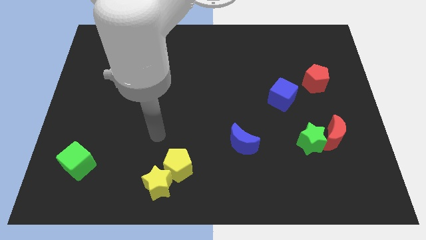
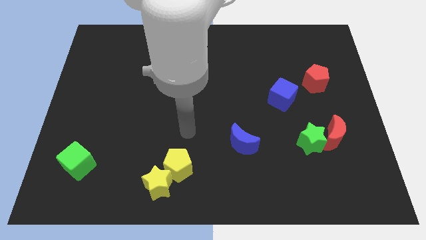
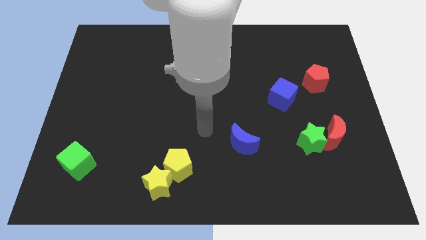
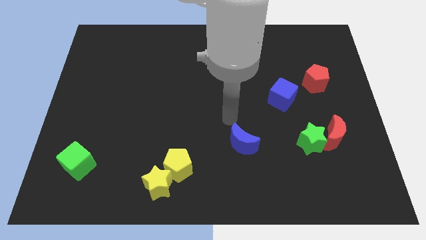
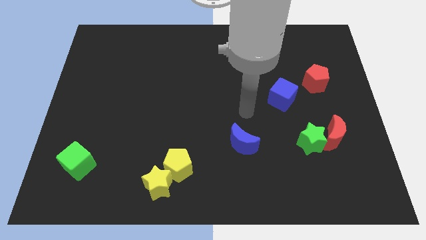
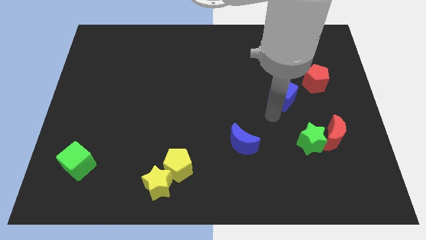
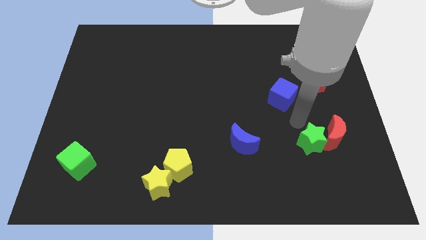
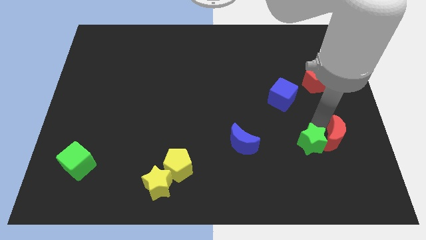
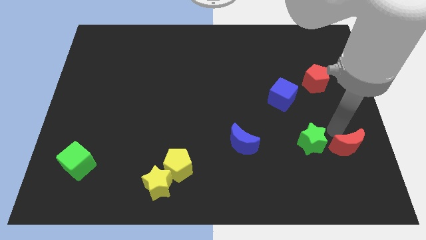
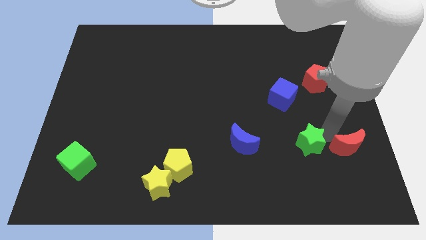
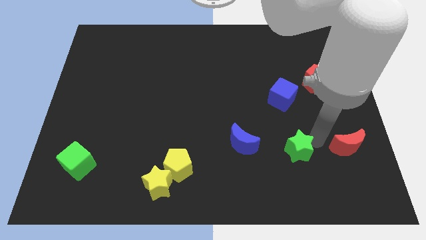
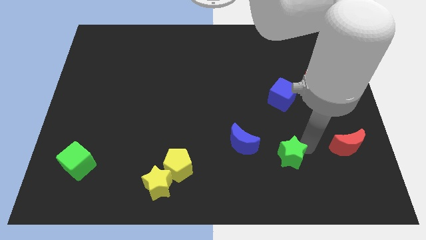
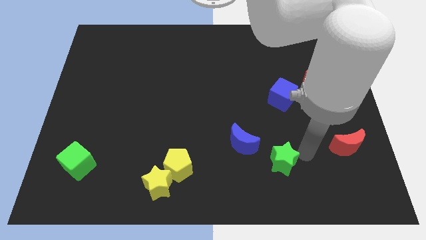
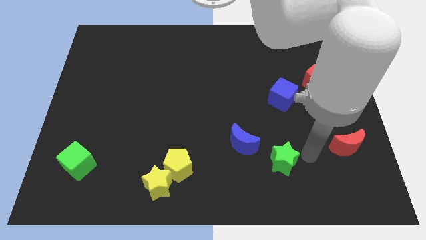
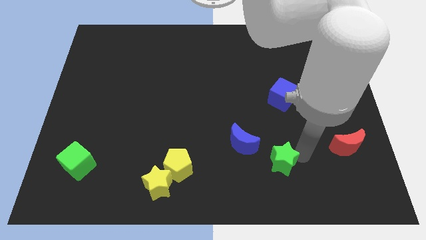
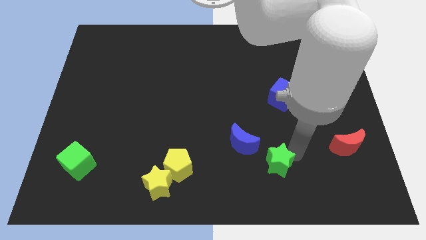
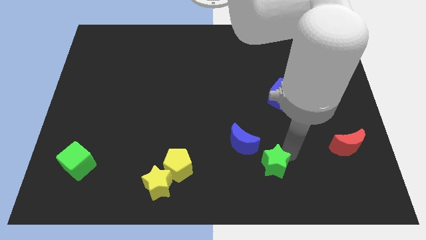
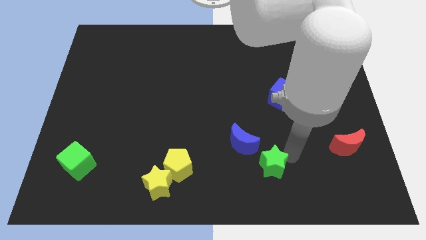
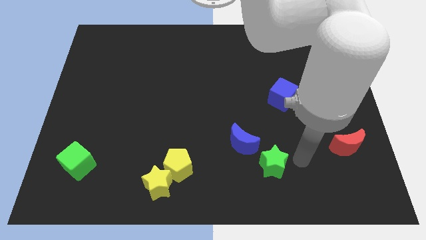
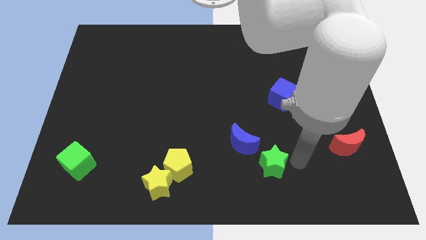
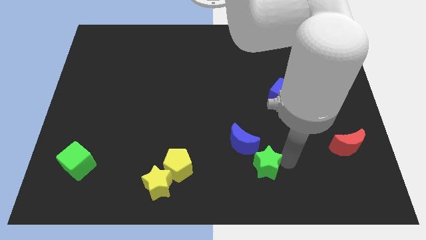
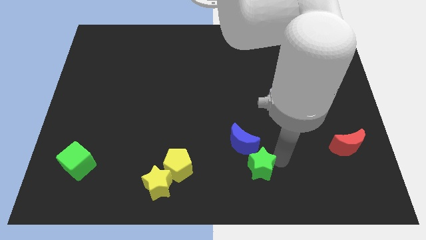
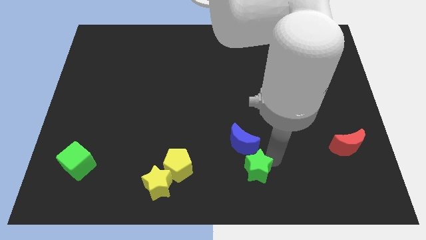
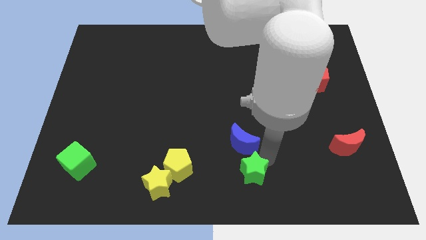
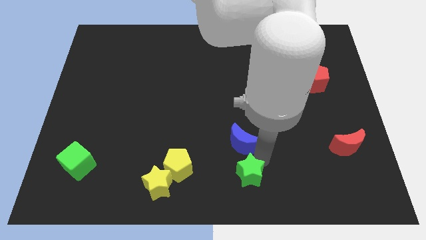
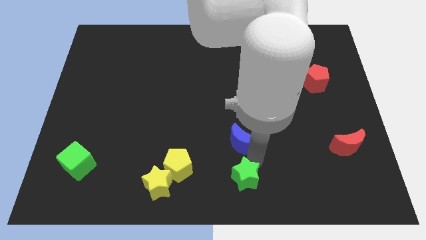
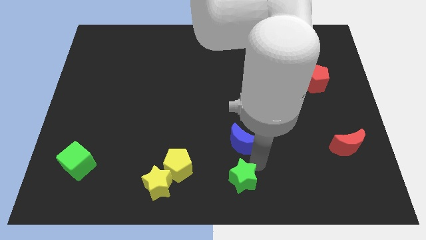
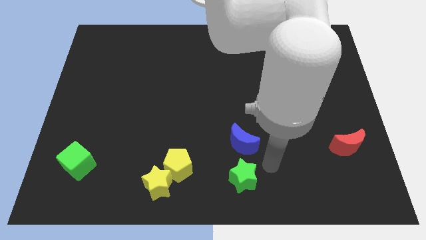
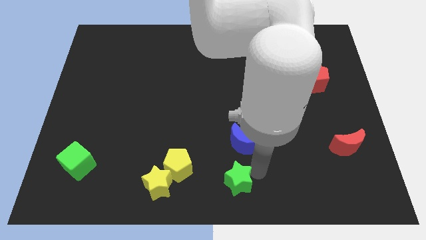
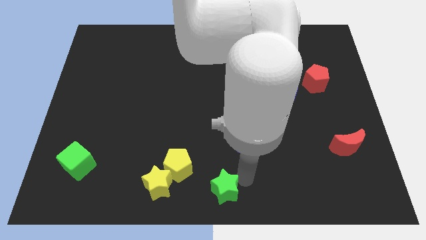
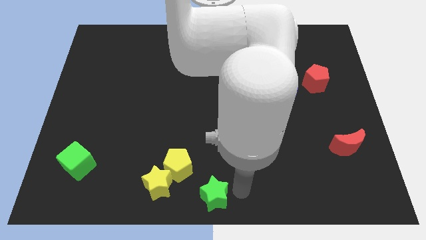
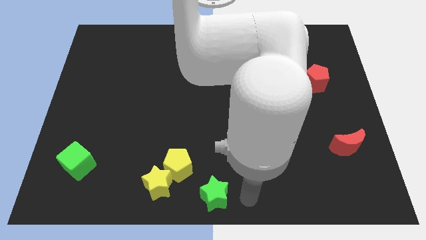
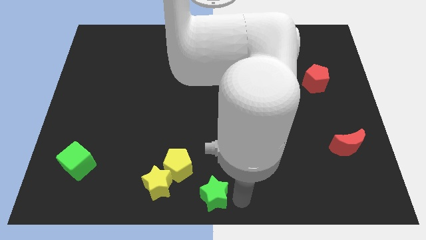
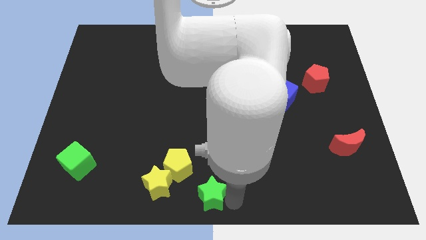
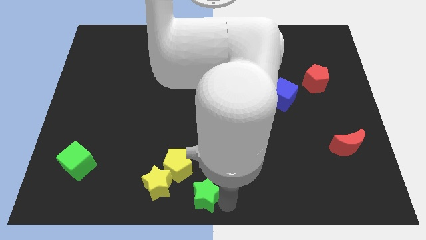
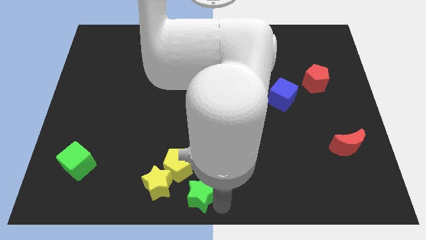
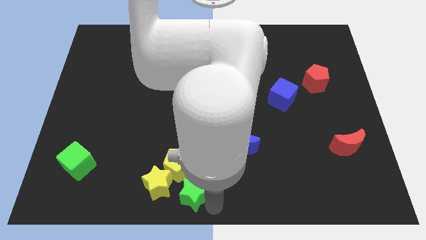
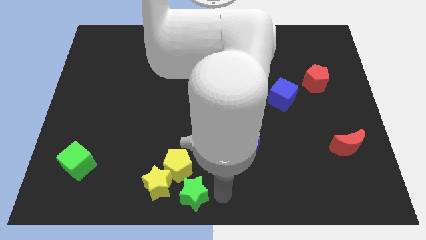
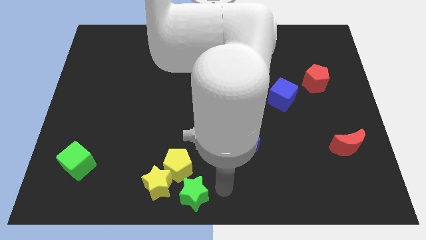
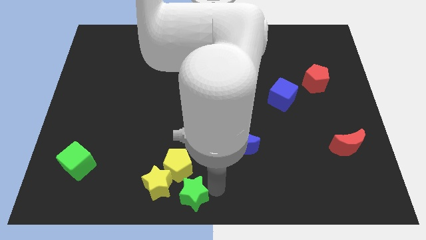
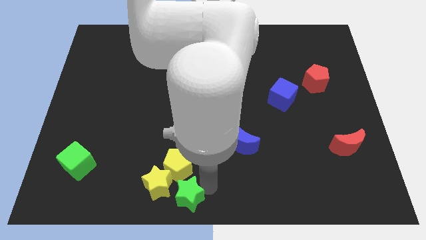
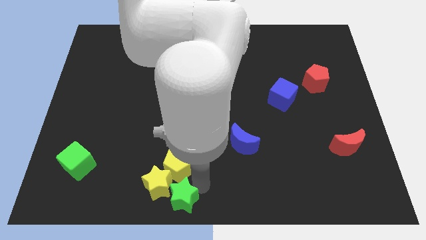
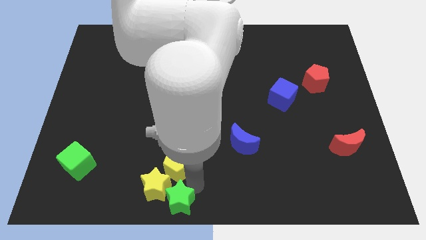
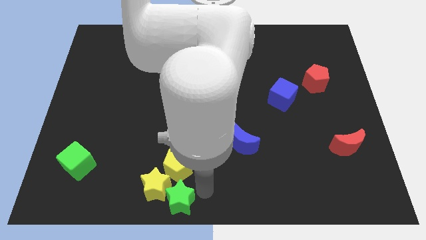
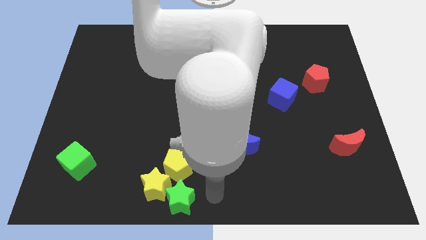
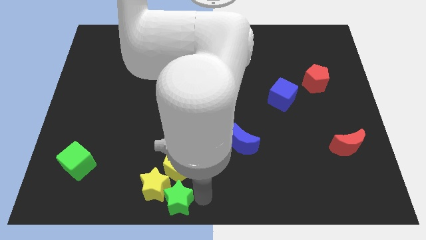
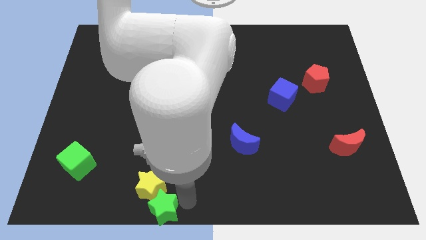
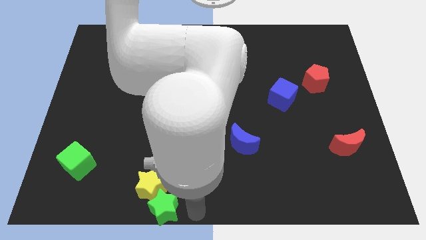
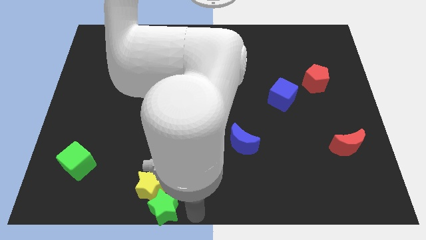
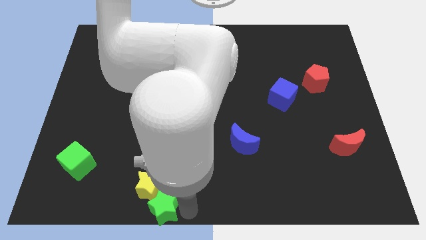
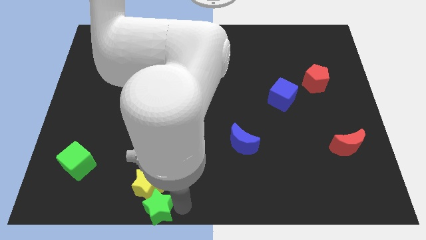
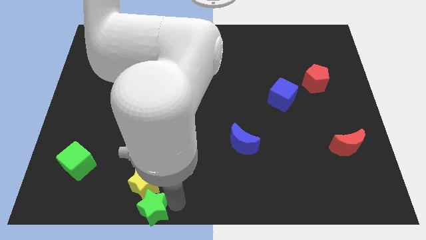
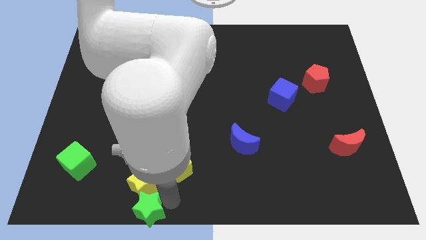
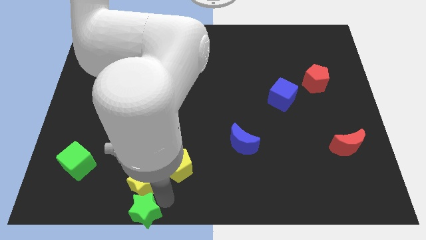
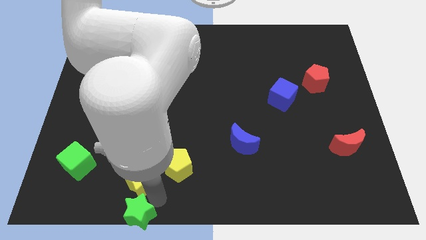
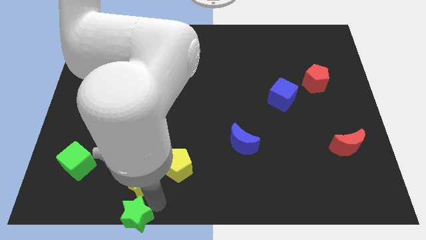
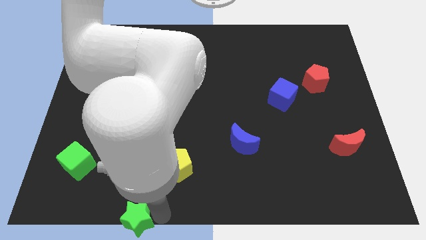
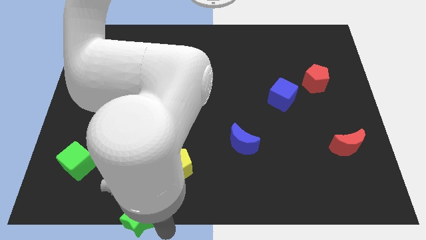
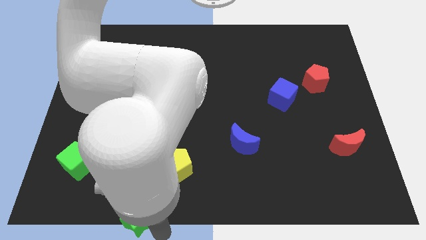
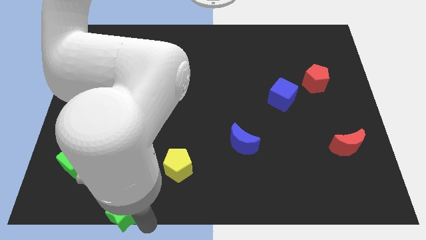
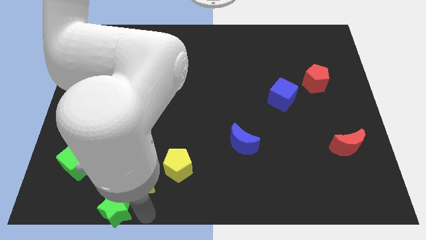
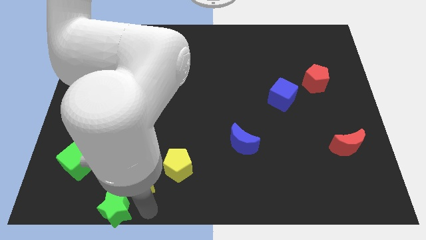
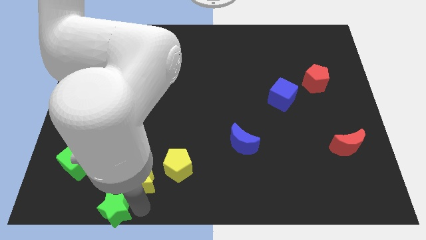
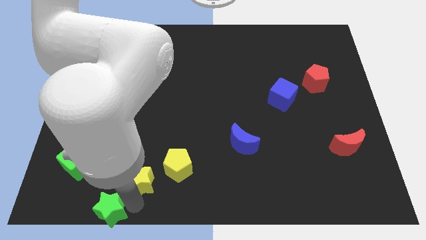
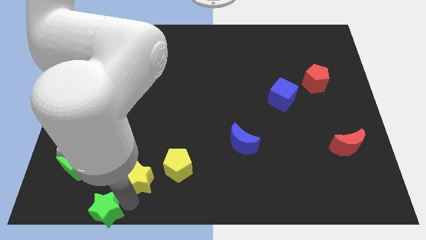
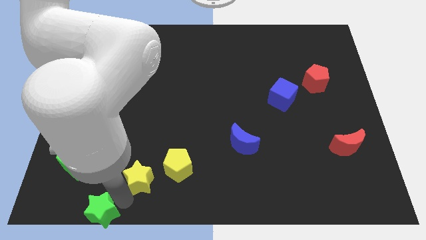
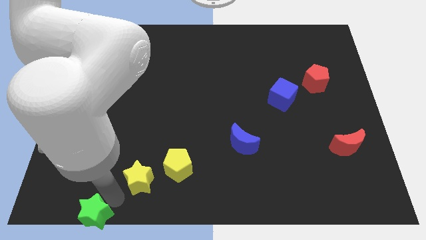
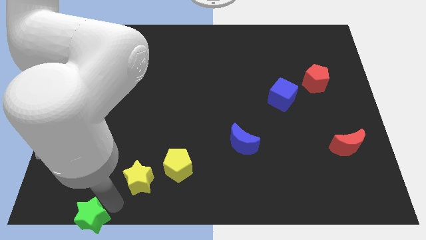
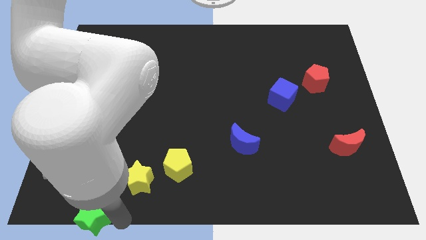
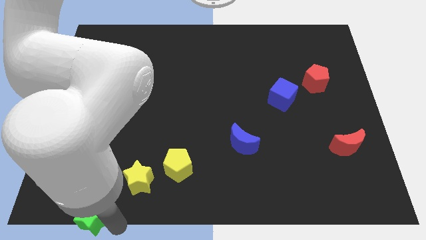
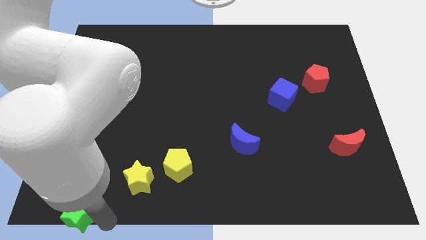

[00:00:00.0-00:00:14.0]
push the green star to the lower left corner
